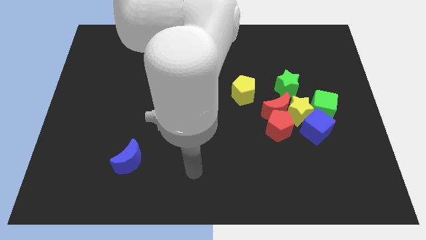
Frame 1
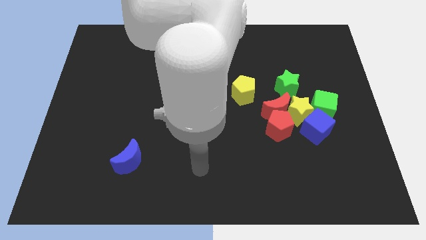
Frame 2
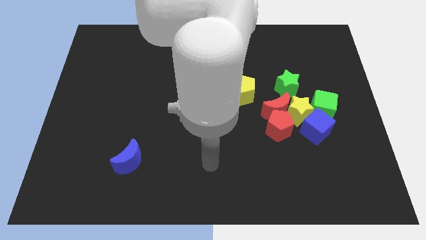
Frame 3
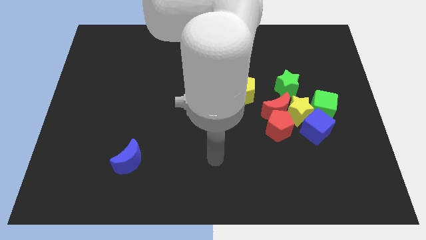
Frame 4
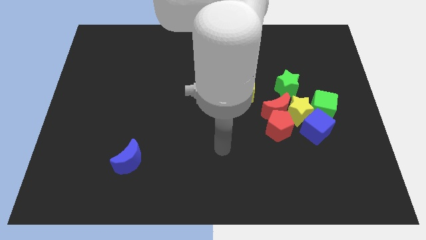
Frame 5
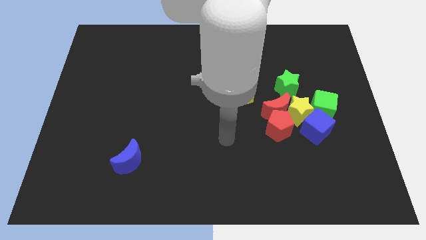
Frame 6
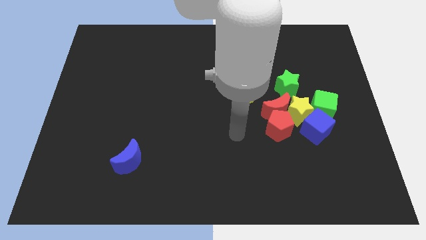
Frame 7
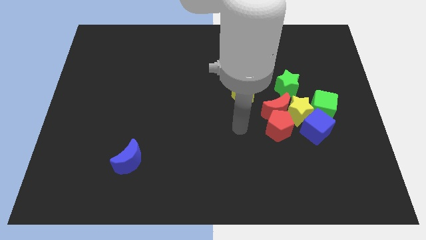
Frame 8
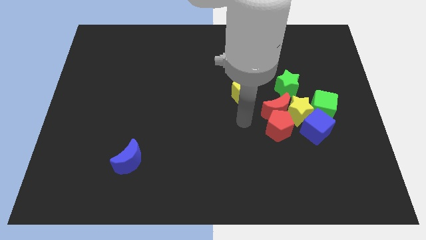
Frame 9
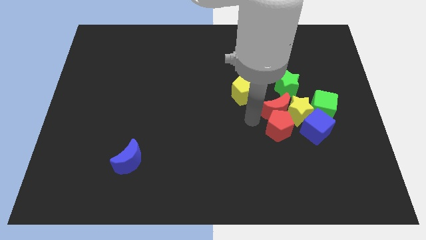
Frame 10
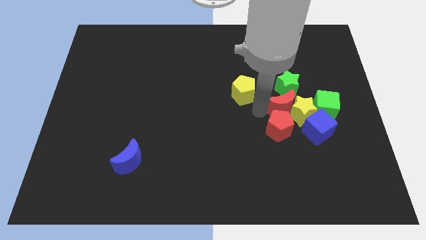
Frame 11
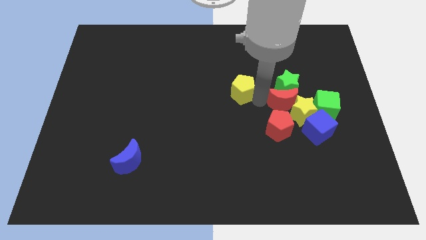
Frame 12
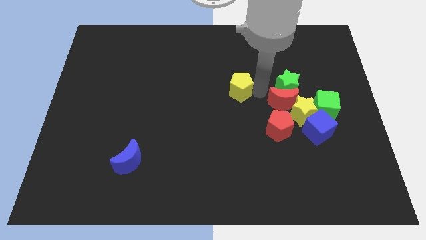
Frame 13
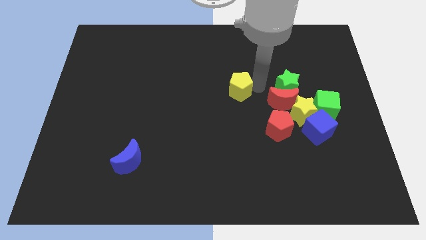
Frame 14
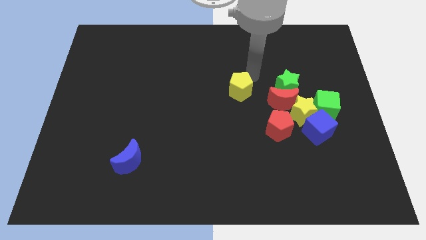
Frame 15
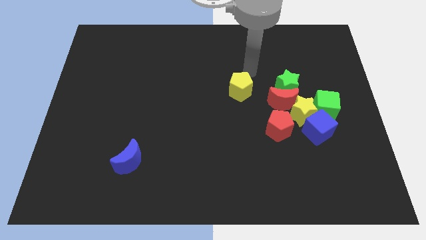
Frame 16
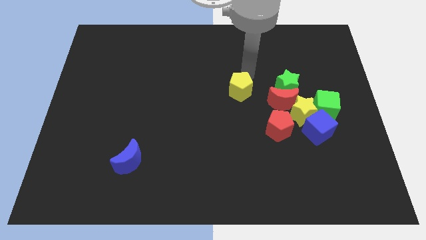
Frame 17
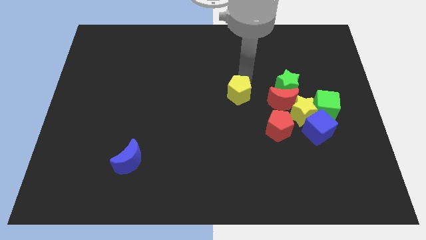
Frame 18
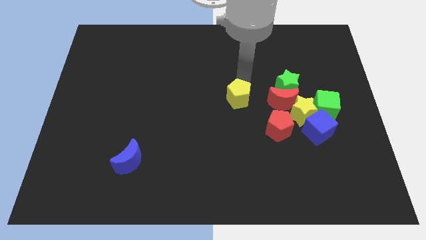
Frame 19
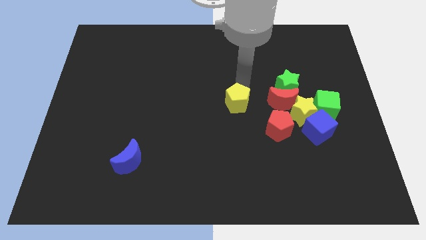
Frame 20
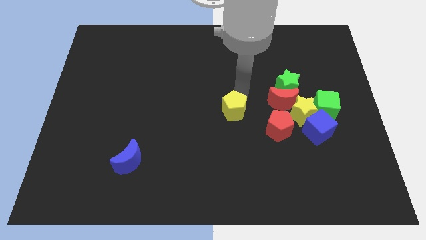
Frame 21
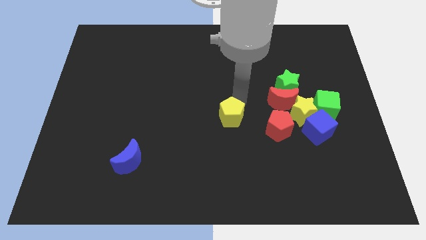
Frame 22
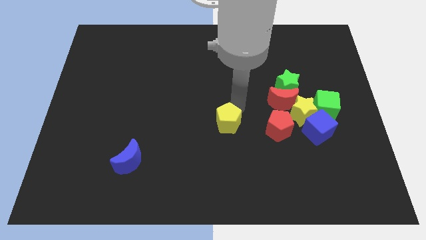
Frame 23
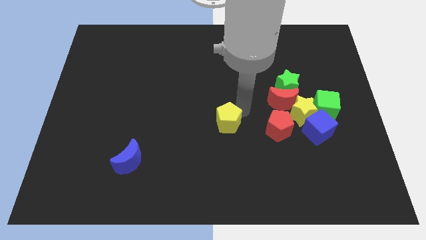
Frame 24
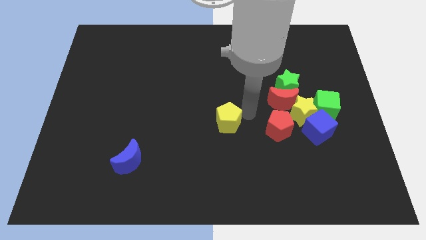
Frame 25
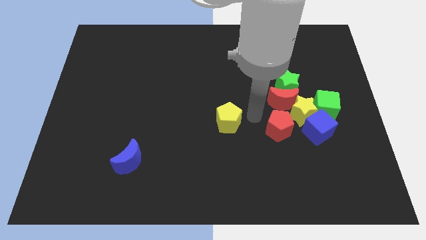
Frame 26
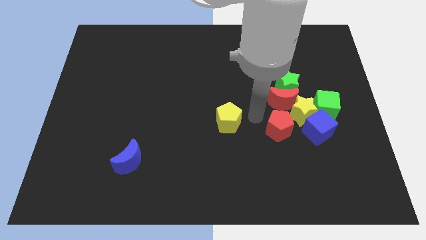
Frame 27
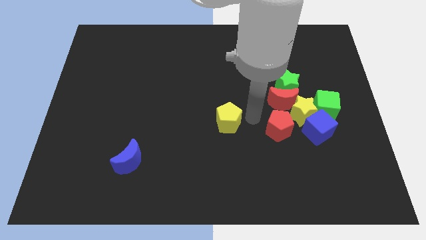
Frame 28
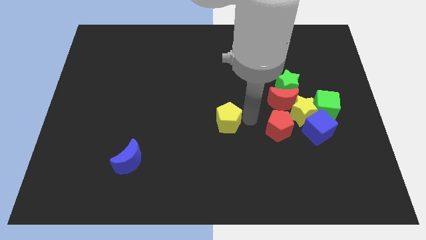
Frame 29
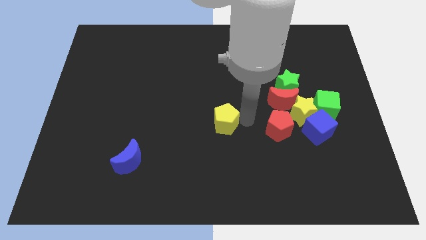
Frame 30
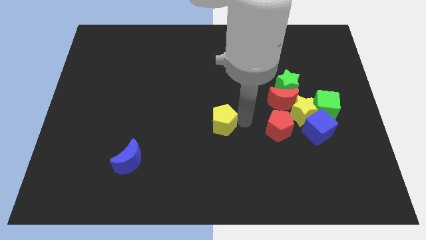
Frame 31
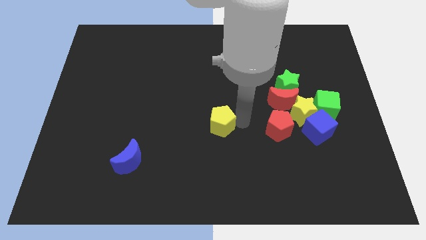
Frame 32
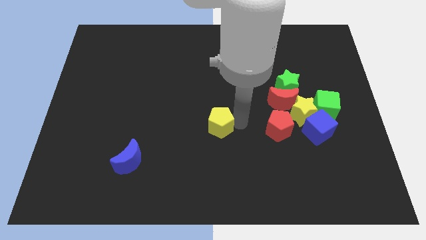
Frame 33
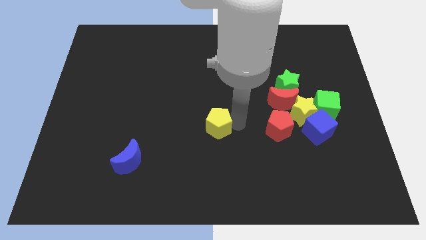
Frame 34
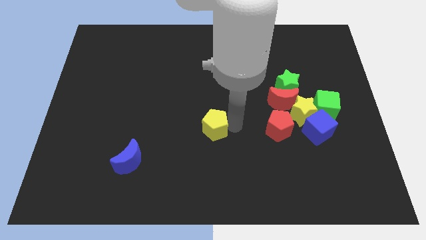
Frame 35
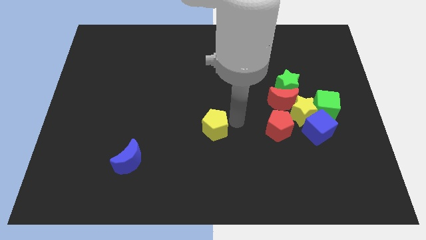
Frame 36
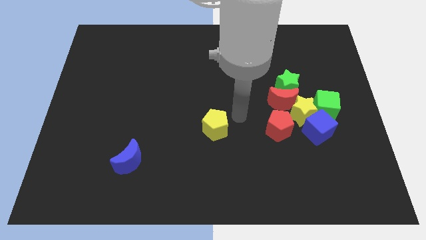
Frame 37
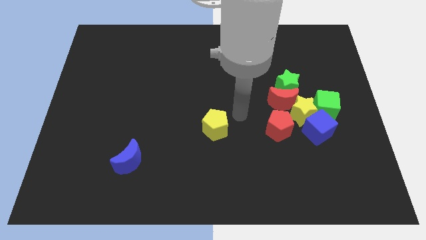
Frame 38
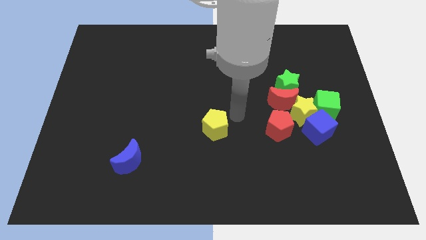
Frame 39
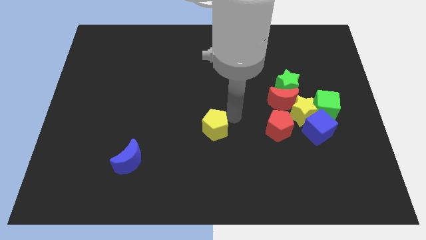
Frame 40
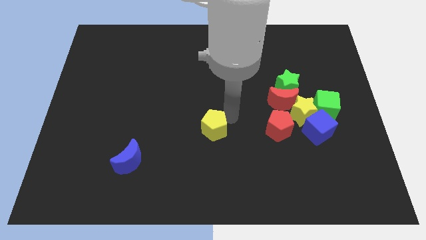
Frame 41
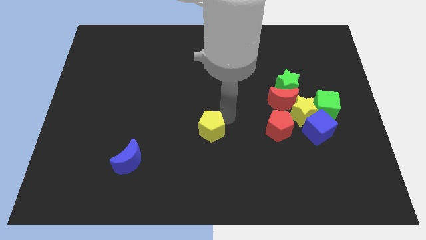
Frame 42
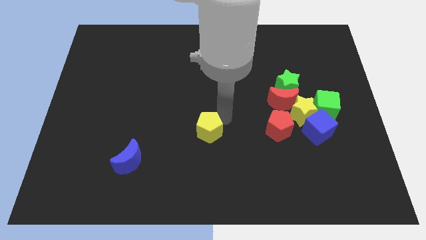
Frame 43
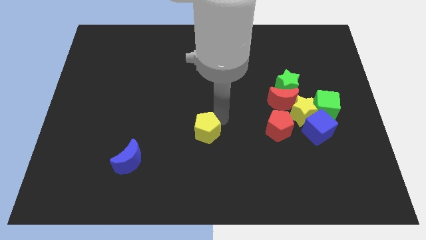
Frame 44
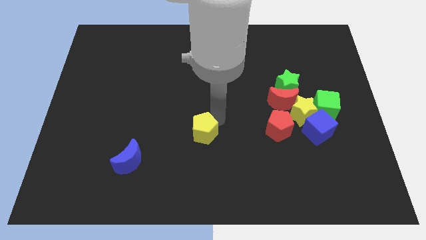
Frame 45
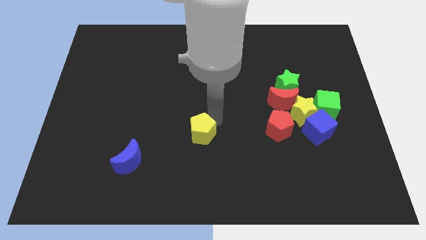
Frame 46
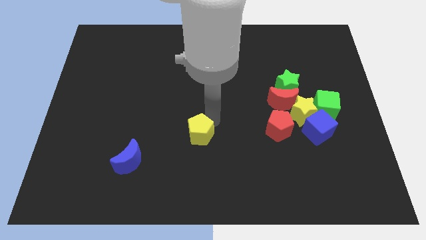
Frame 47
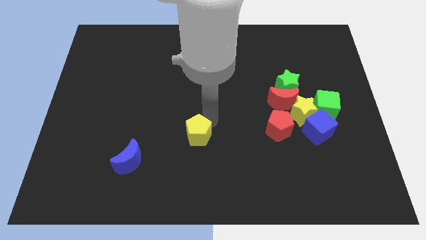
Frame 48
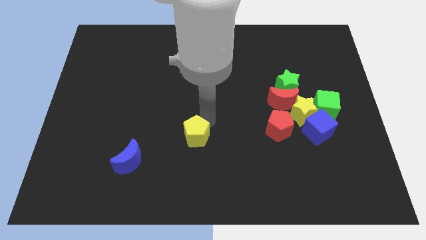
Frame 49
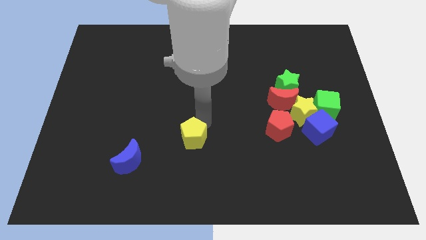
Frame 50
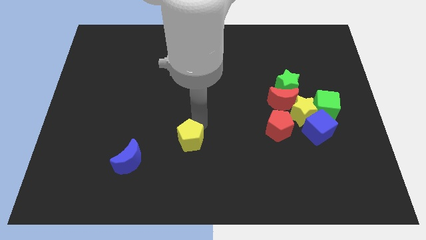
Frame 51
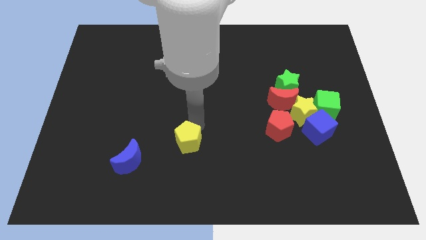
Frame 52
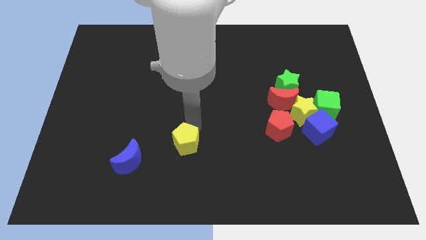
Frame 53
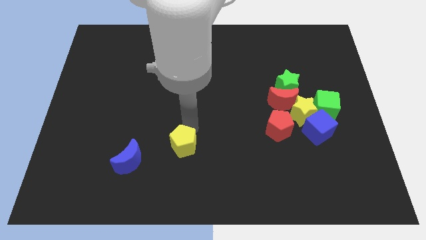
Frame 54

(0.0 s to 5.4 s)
slide the yellow pentagon down and then to the left

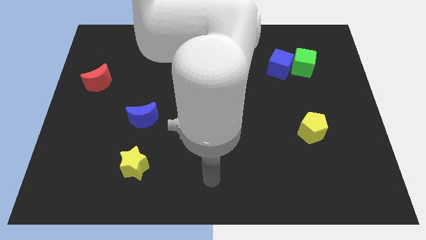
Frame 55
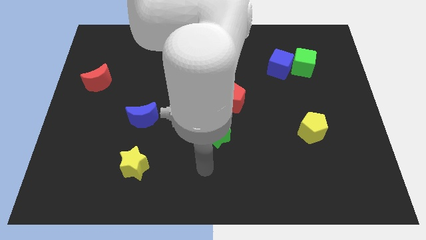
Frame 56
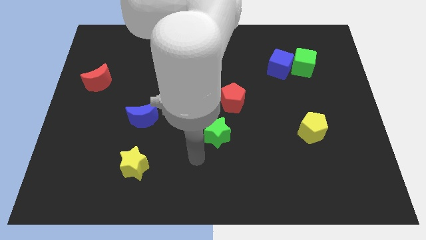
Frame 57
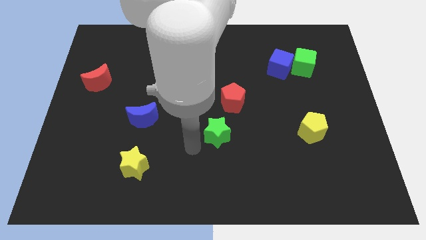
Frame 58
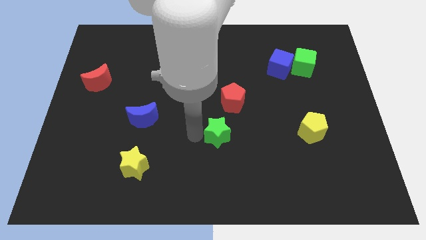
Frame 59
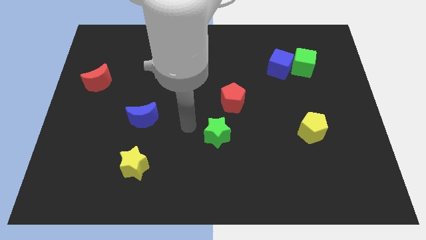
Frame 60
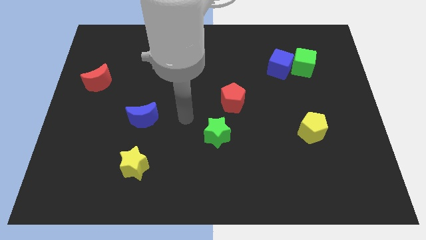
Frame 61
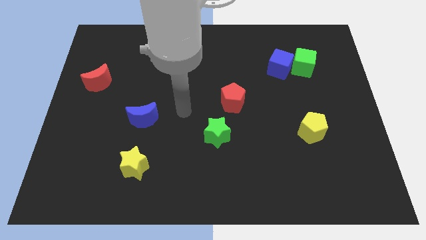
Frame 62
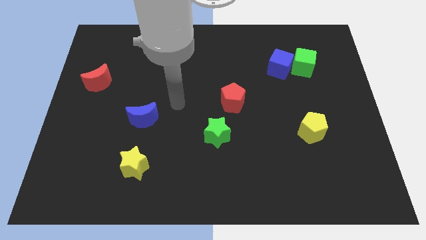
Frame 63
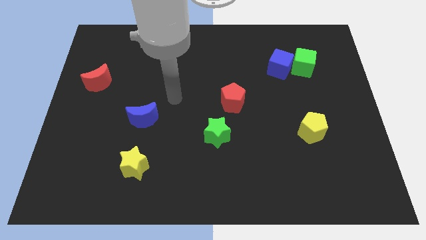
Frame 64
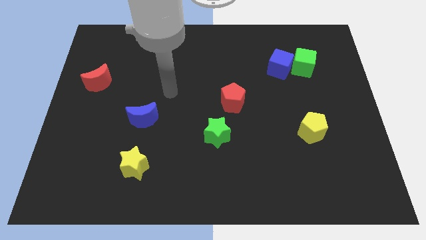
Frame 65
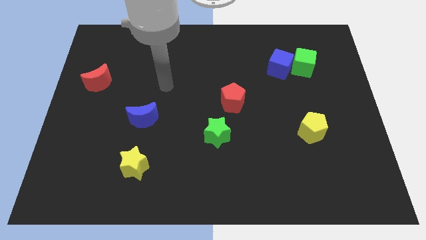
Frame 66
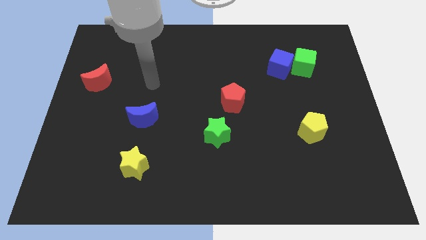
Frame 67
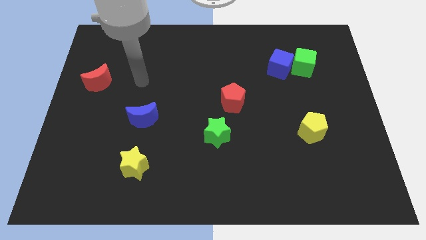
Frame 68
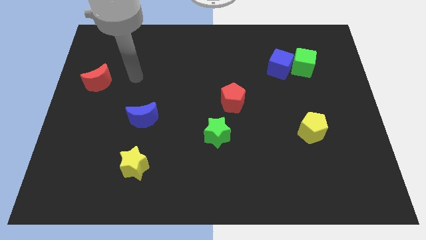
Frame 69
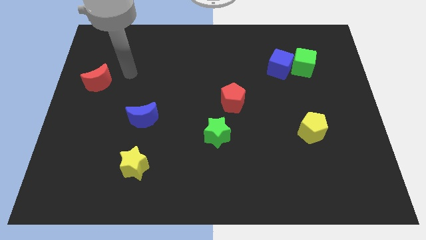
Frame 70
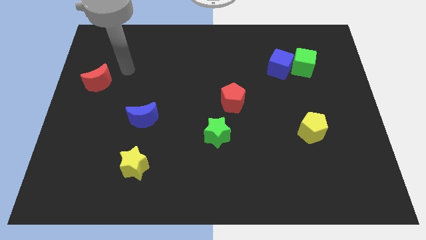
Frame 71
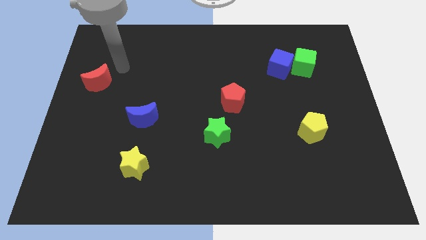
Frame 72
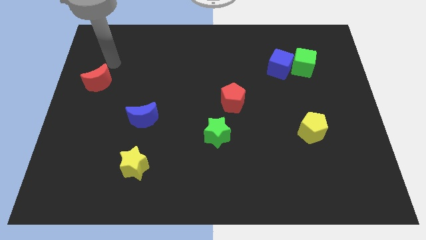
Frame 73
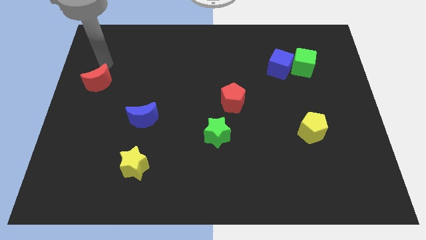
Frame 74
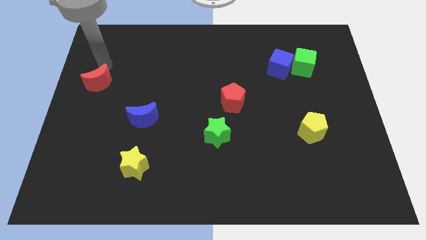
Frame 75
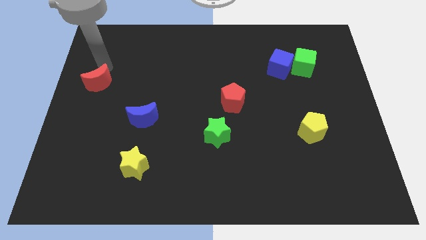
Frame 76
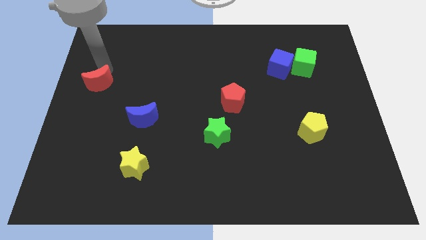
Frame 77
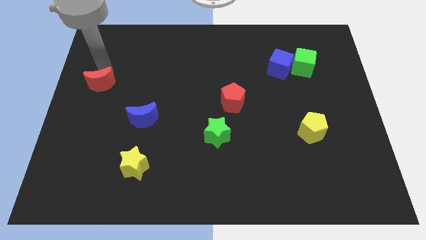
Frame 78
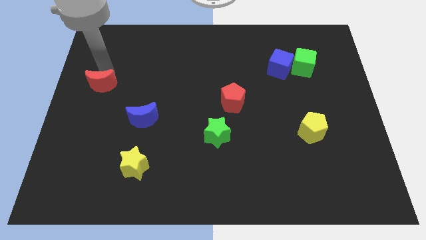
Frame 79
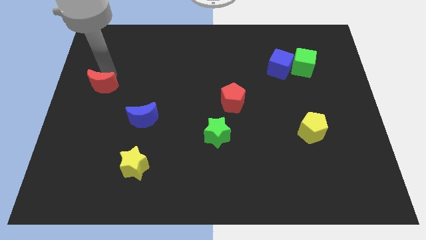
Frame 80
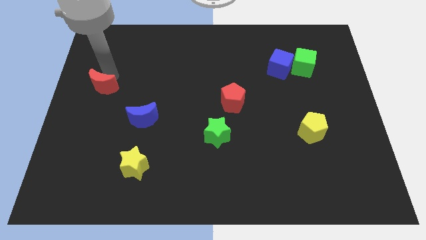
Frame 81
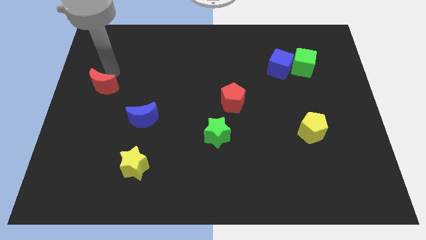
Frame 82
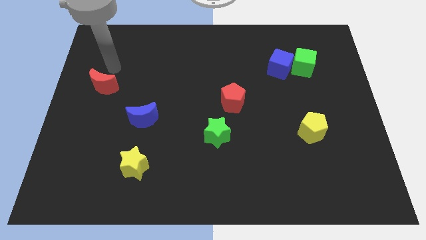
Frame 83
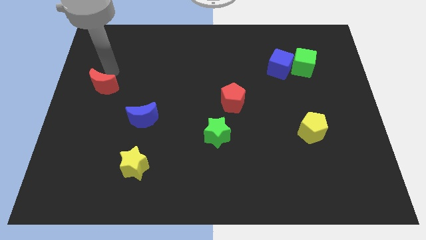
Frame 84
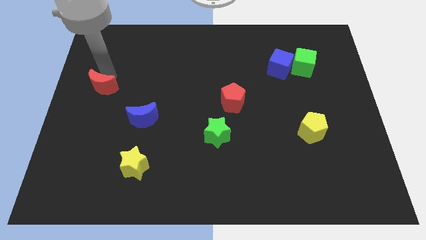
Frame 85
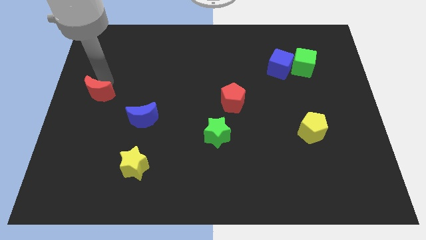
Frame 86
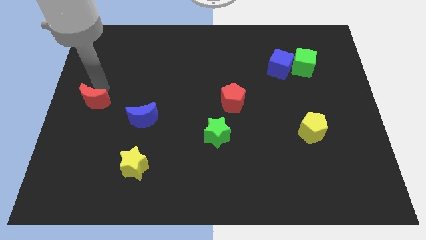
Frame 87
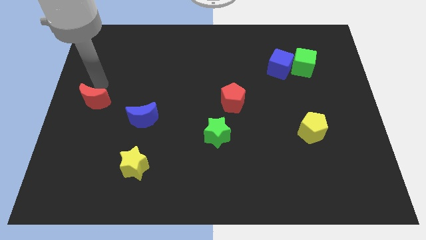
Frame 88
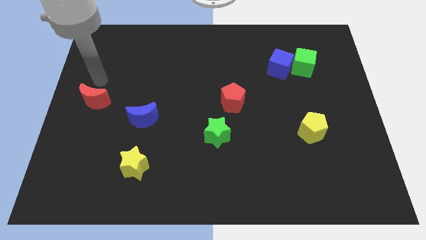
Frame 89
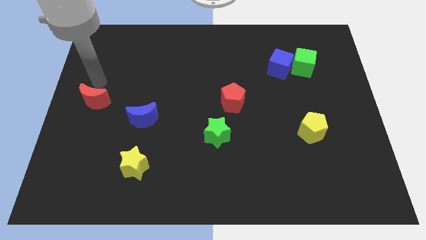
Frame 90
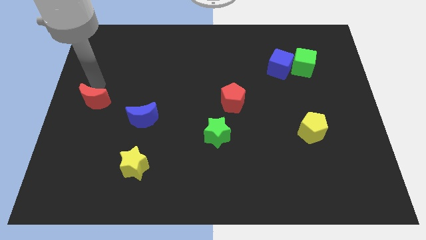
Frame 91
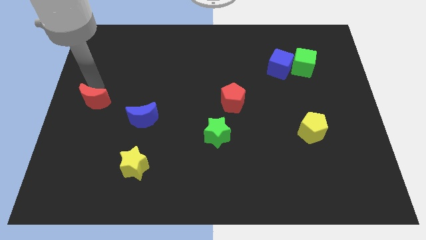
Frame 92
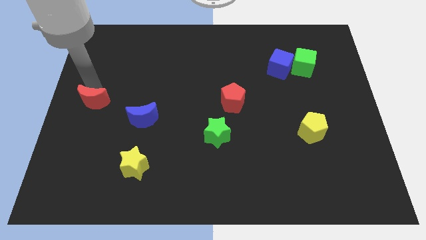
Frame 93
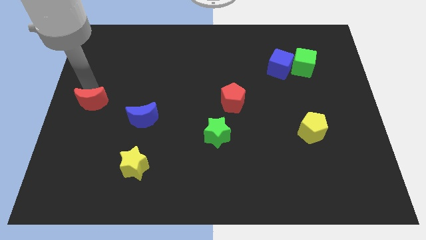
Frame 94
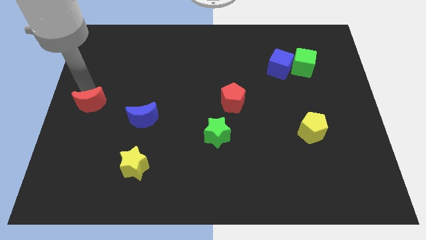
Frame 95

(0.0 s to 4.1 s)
move the red moon down somewhat
